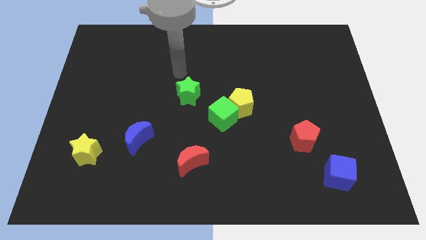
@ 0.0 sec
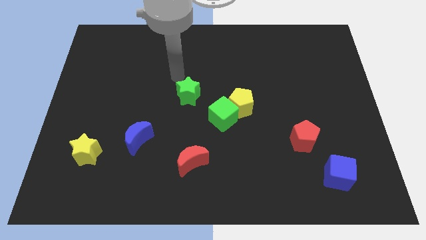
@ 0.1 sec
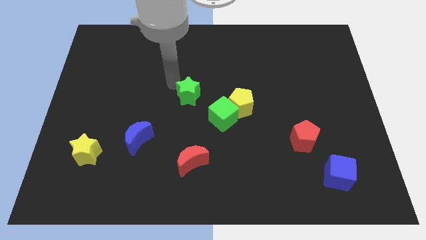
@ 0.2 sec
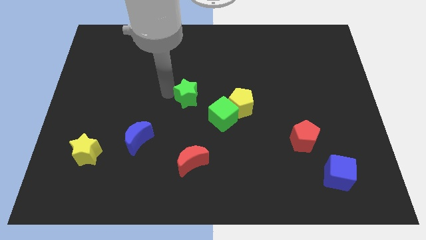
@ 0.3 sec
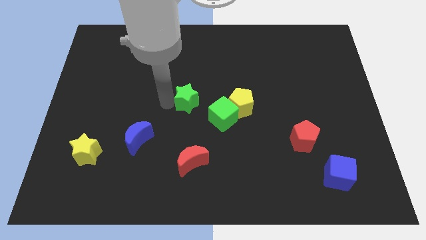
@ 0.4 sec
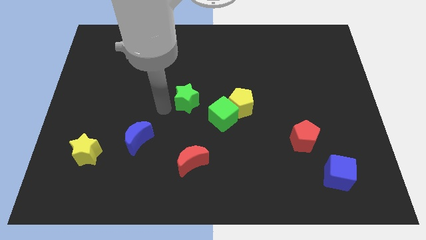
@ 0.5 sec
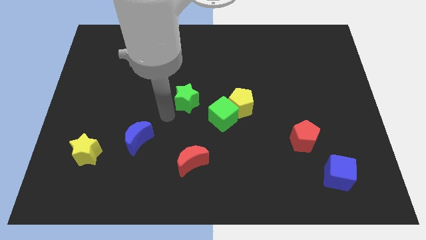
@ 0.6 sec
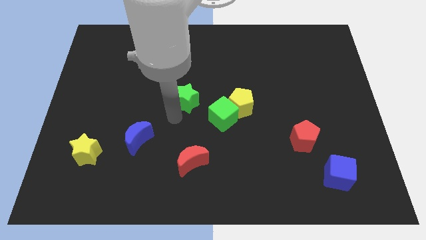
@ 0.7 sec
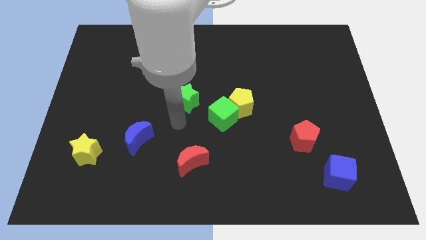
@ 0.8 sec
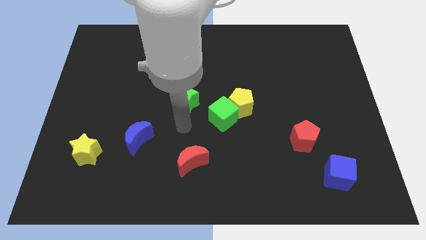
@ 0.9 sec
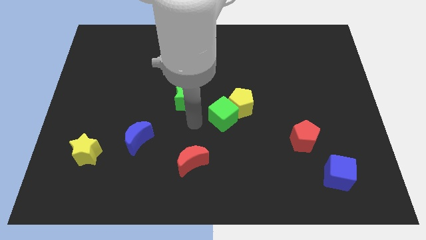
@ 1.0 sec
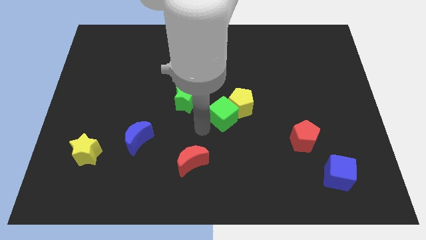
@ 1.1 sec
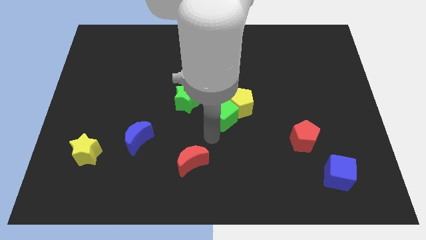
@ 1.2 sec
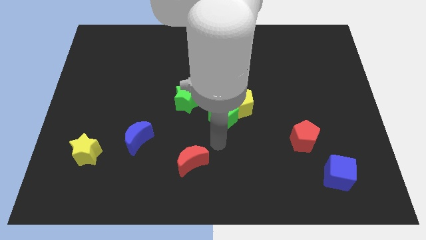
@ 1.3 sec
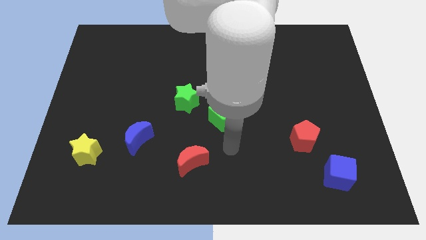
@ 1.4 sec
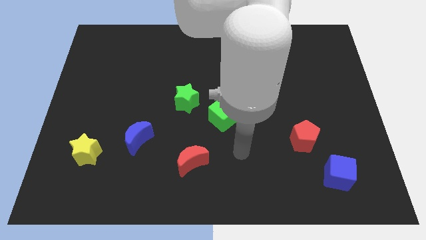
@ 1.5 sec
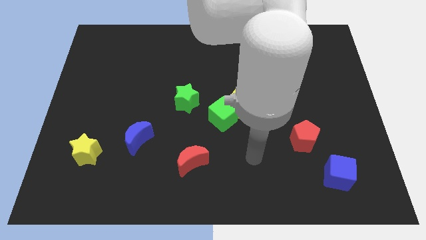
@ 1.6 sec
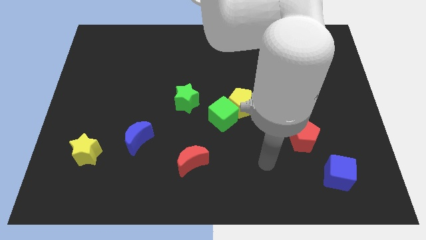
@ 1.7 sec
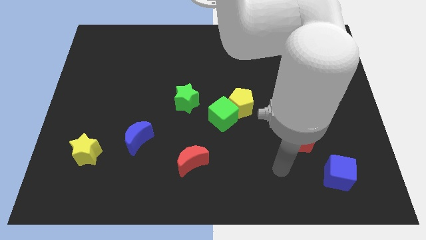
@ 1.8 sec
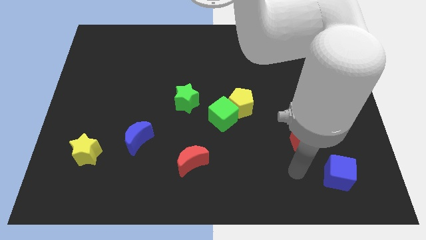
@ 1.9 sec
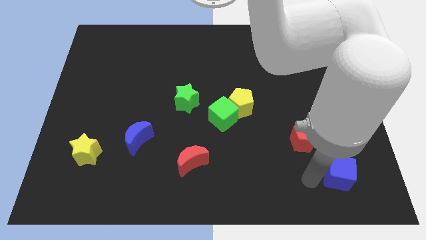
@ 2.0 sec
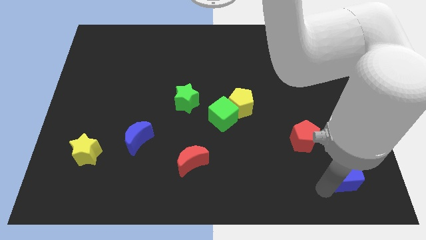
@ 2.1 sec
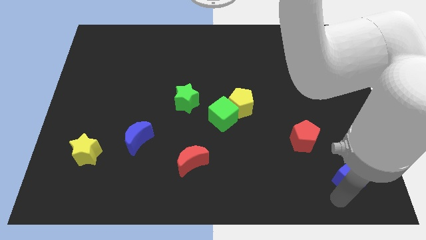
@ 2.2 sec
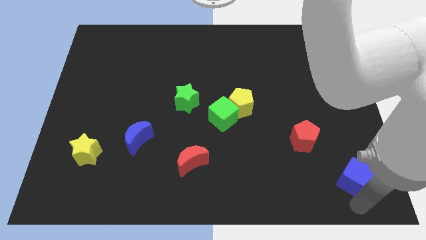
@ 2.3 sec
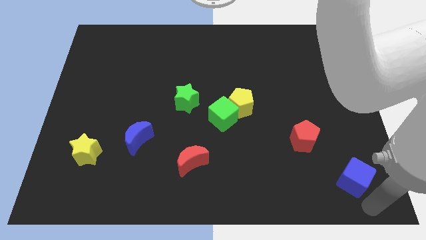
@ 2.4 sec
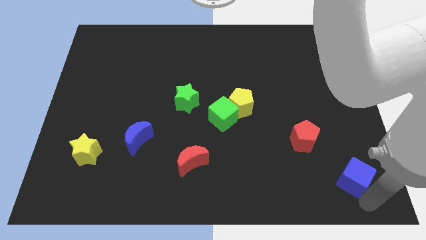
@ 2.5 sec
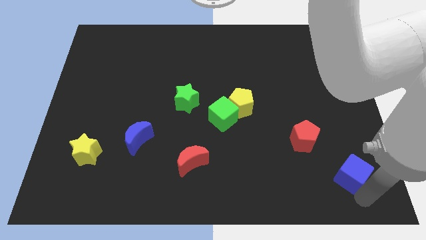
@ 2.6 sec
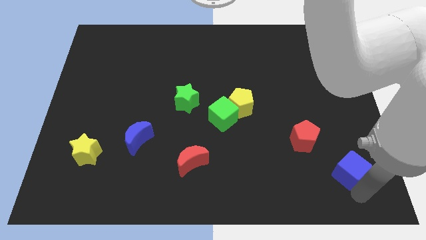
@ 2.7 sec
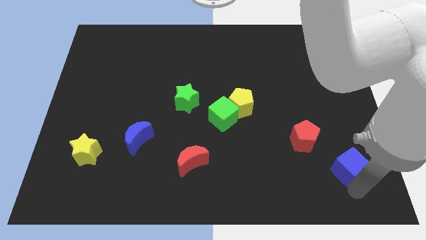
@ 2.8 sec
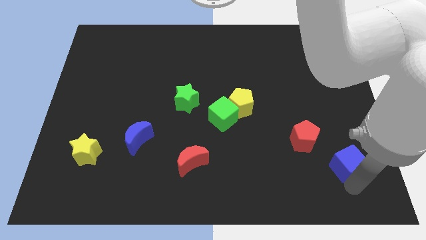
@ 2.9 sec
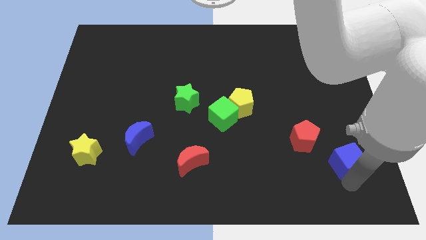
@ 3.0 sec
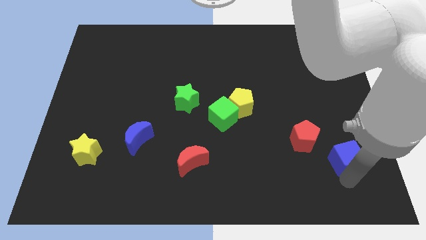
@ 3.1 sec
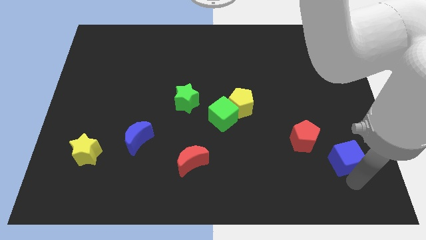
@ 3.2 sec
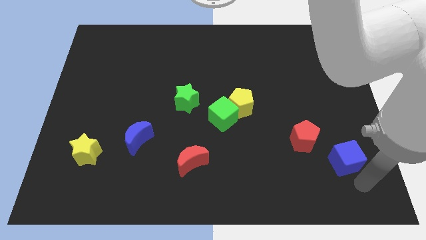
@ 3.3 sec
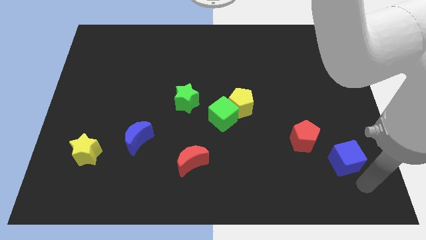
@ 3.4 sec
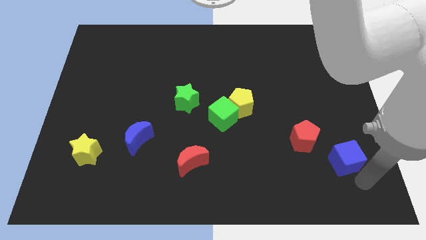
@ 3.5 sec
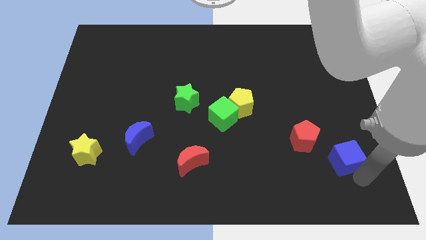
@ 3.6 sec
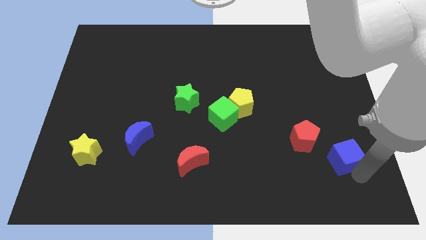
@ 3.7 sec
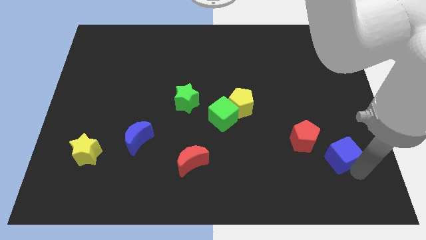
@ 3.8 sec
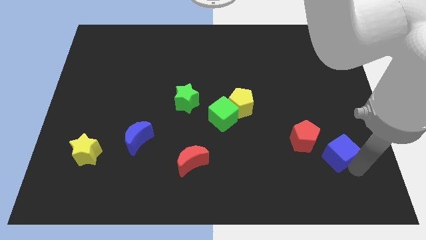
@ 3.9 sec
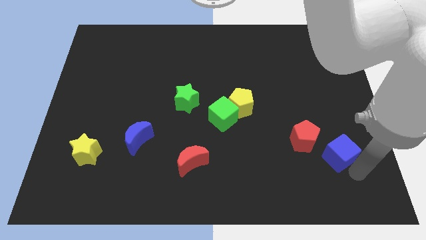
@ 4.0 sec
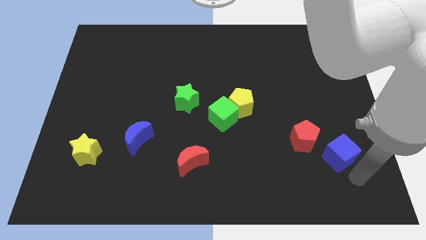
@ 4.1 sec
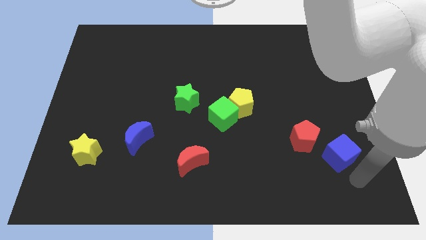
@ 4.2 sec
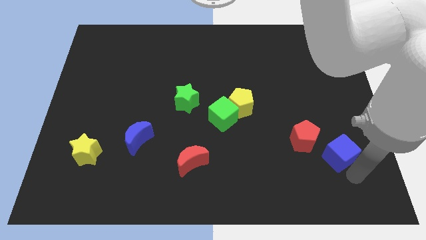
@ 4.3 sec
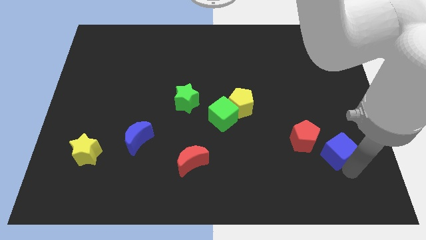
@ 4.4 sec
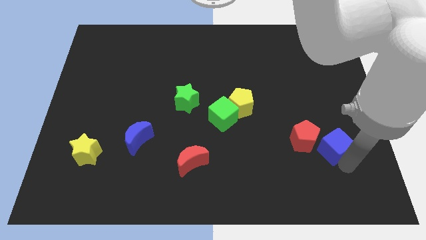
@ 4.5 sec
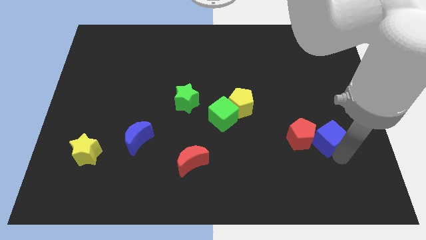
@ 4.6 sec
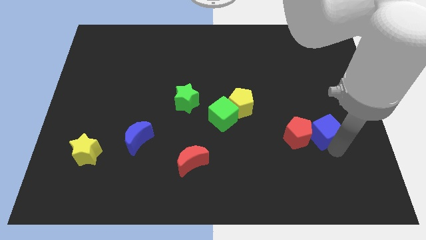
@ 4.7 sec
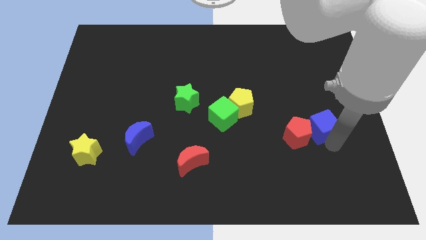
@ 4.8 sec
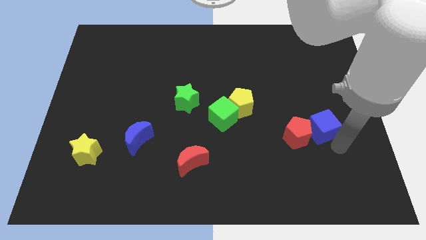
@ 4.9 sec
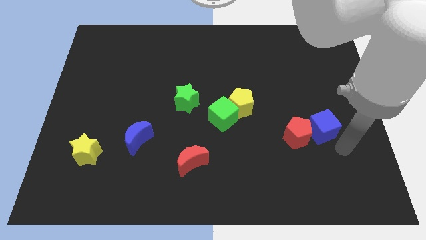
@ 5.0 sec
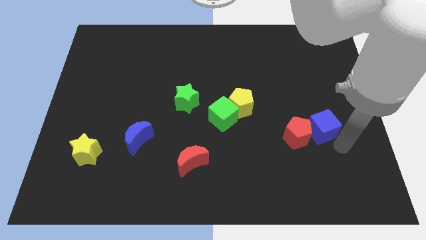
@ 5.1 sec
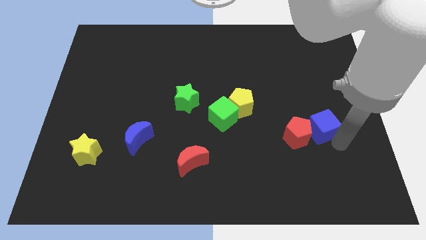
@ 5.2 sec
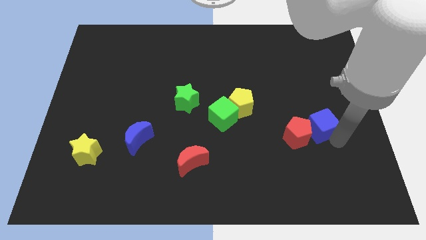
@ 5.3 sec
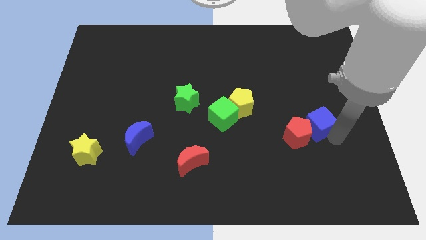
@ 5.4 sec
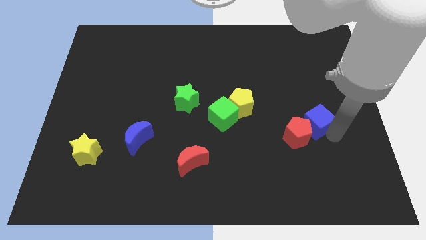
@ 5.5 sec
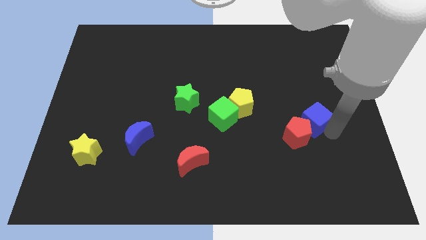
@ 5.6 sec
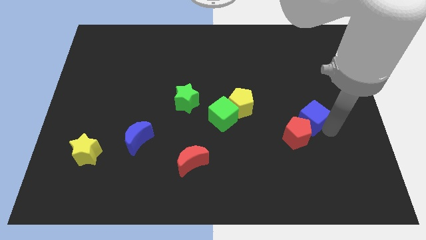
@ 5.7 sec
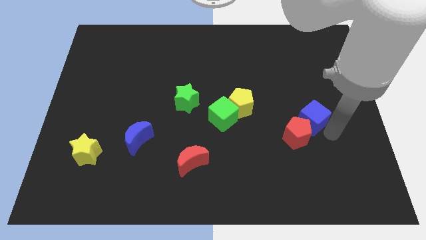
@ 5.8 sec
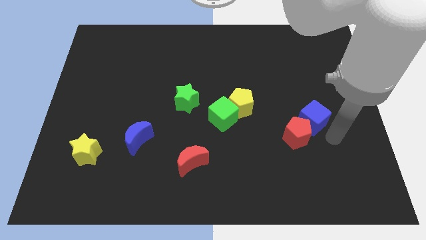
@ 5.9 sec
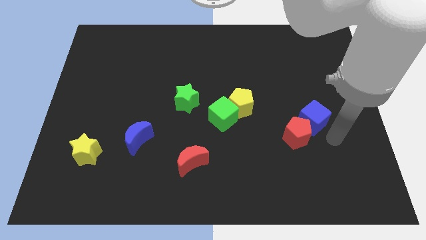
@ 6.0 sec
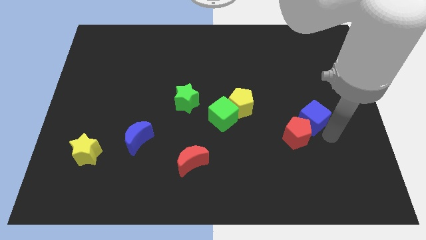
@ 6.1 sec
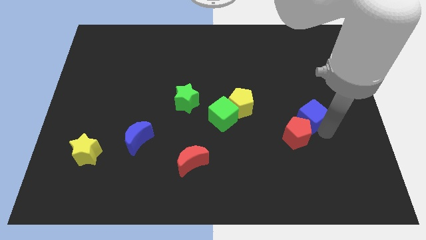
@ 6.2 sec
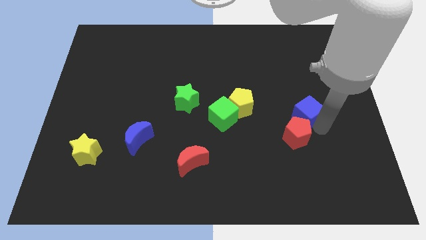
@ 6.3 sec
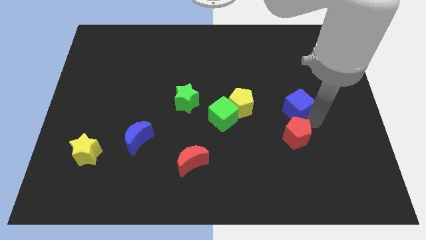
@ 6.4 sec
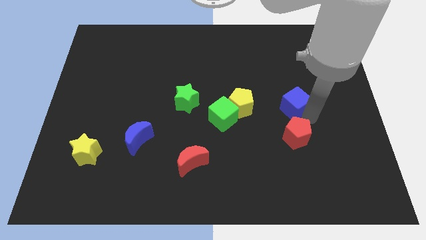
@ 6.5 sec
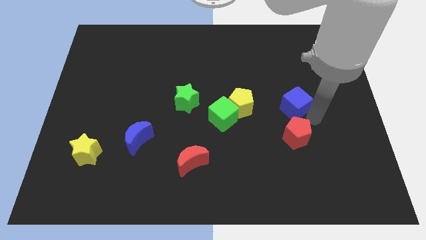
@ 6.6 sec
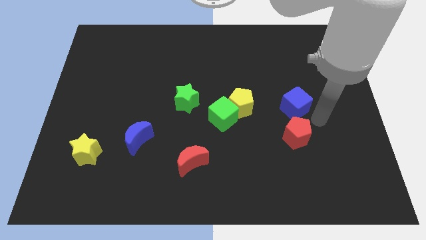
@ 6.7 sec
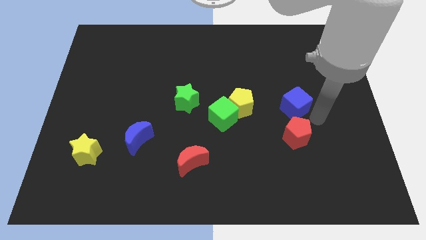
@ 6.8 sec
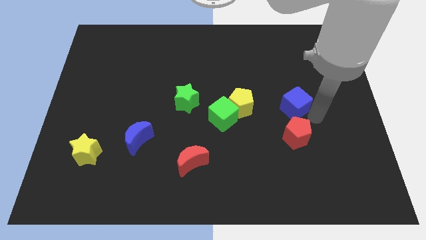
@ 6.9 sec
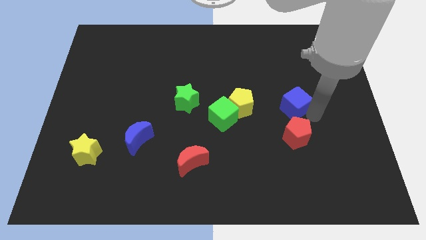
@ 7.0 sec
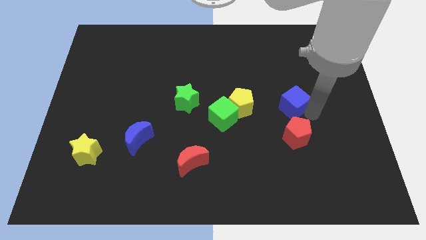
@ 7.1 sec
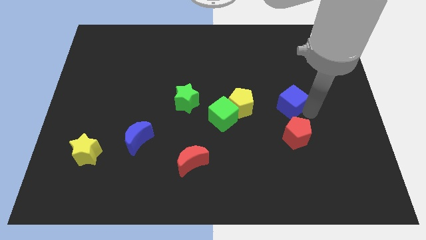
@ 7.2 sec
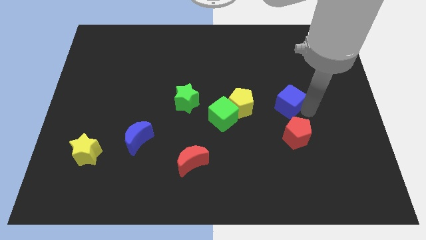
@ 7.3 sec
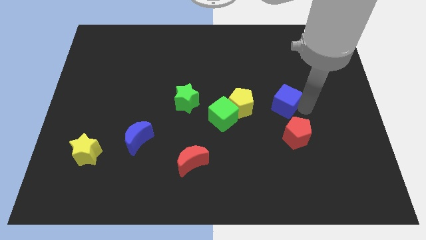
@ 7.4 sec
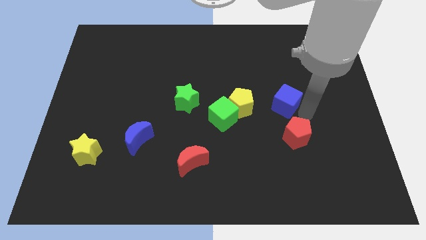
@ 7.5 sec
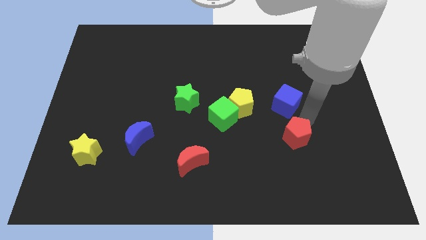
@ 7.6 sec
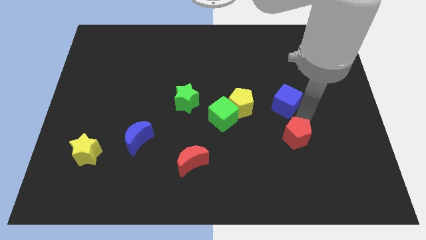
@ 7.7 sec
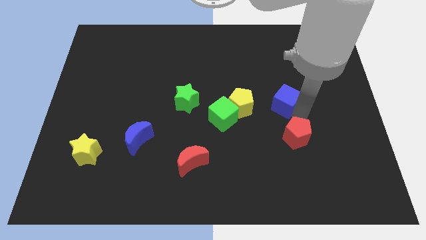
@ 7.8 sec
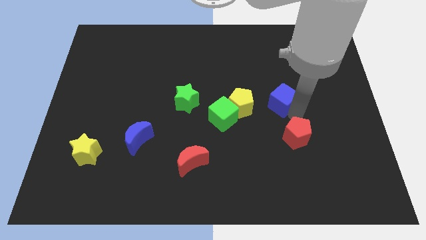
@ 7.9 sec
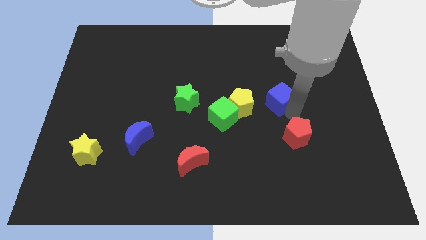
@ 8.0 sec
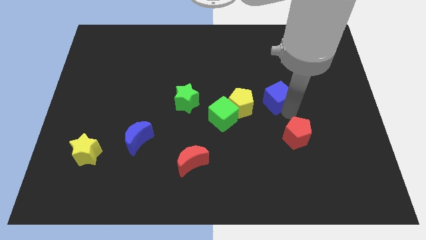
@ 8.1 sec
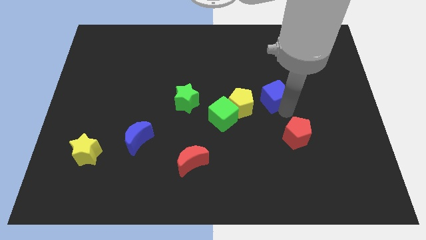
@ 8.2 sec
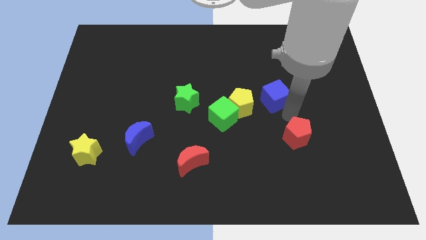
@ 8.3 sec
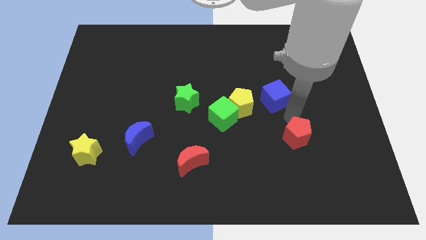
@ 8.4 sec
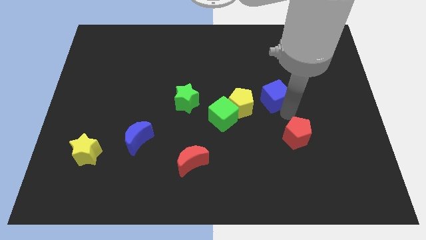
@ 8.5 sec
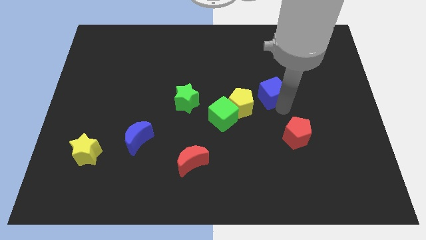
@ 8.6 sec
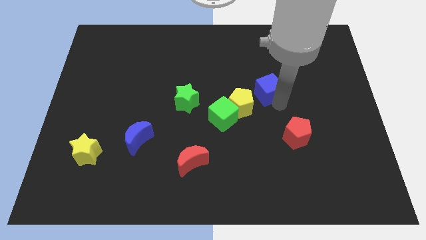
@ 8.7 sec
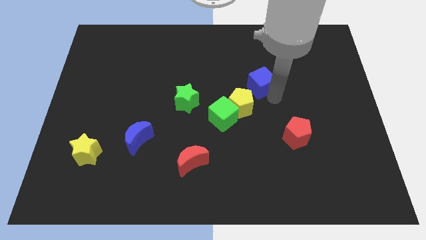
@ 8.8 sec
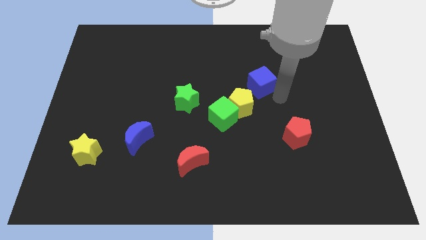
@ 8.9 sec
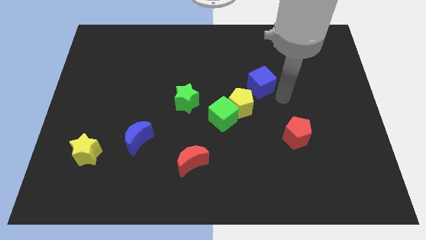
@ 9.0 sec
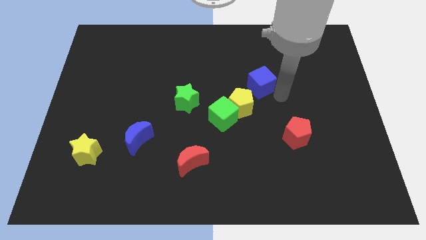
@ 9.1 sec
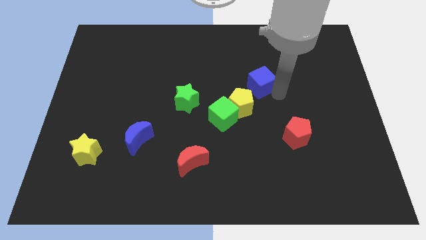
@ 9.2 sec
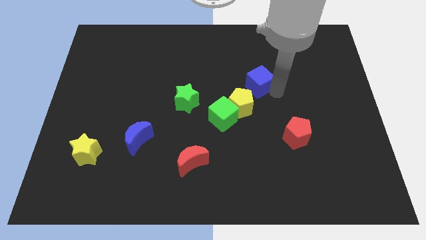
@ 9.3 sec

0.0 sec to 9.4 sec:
push the blue cube above the yellow pentagon
